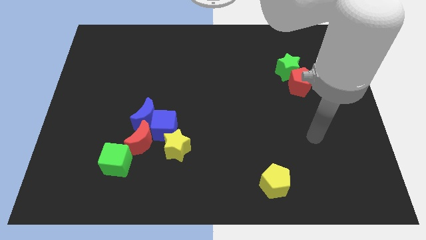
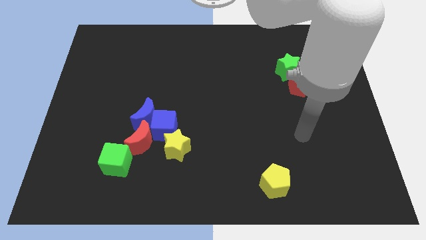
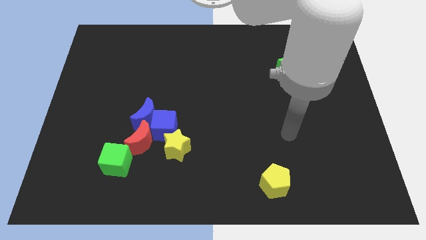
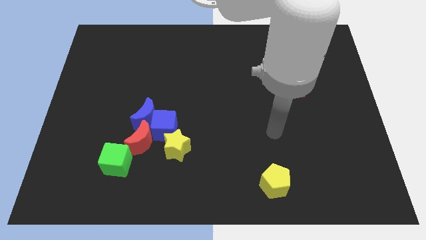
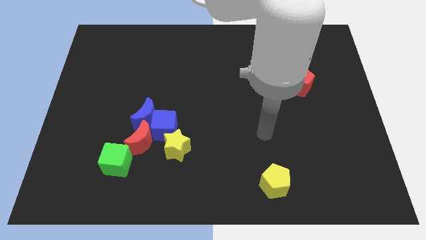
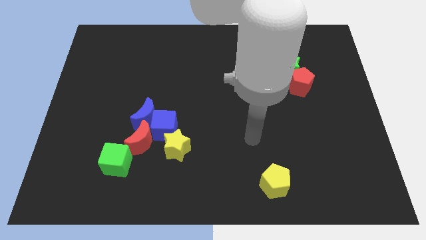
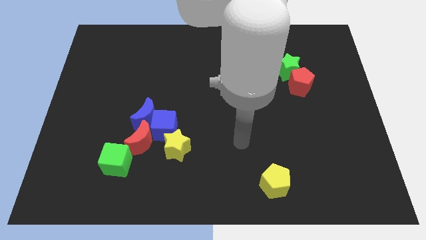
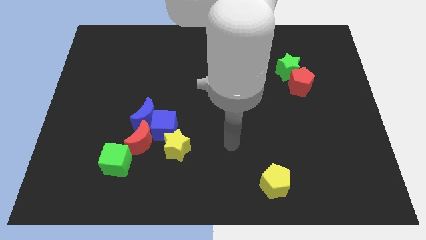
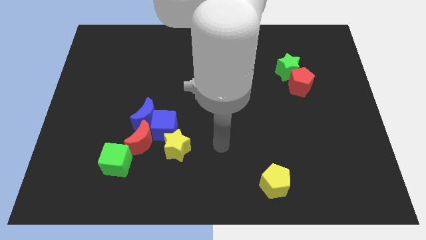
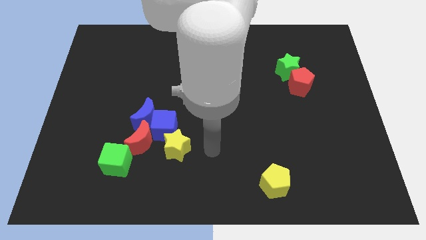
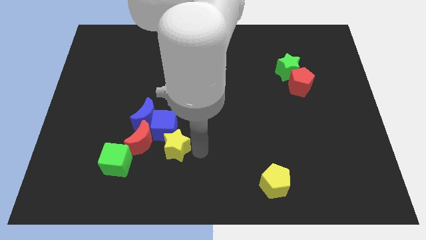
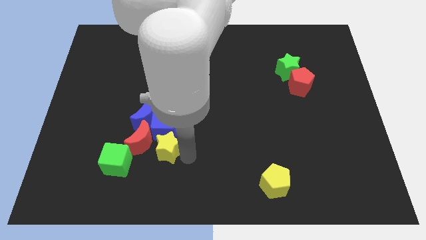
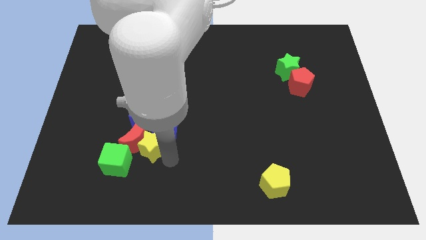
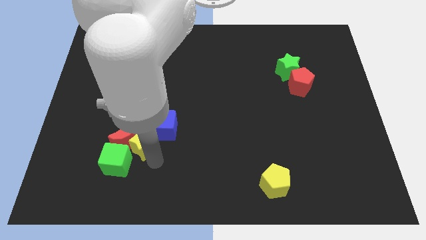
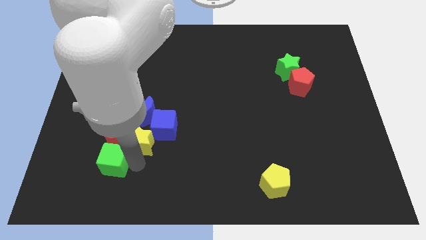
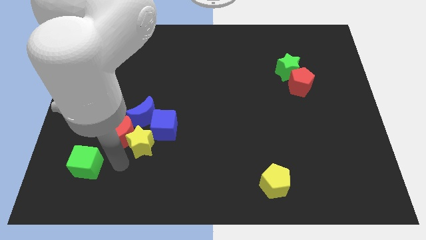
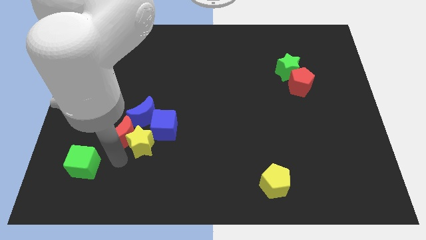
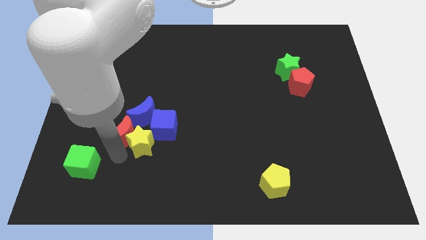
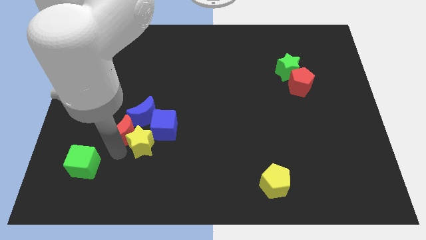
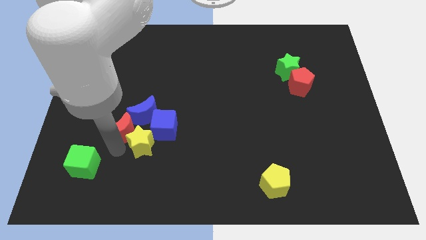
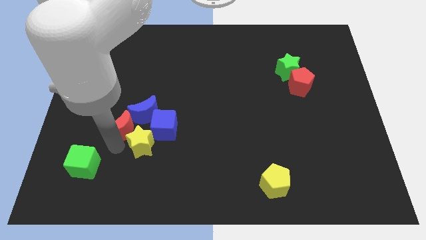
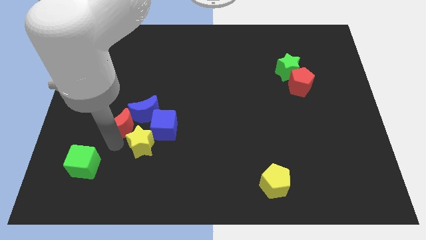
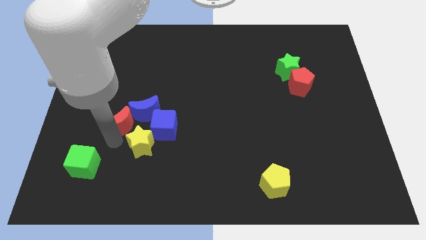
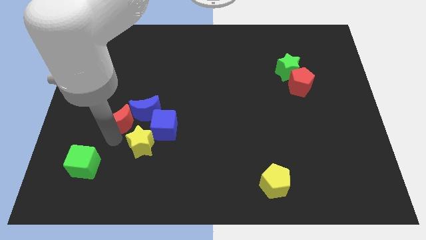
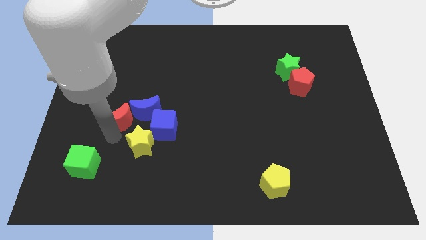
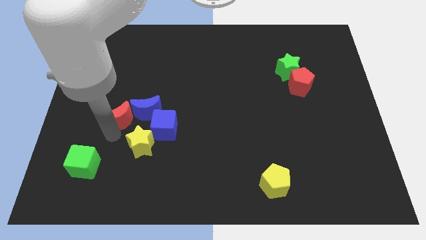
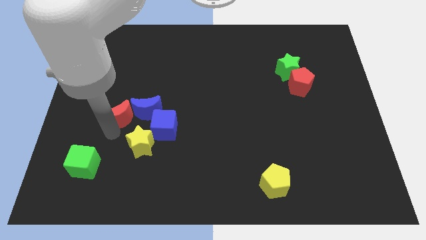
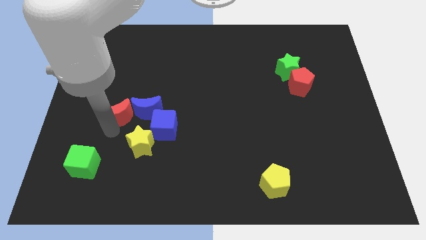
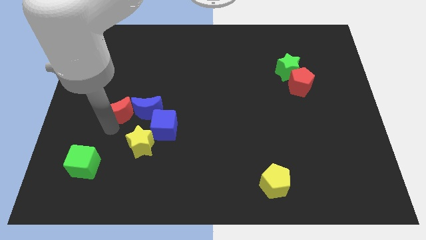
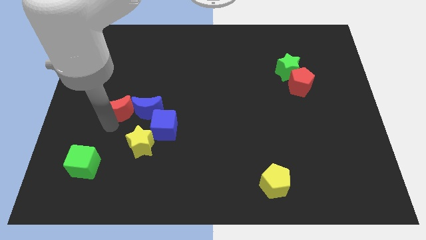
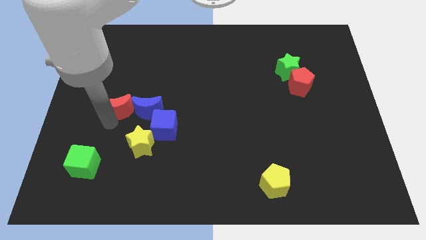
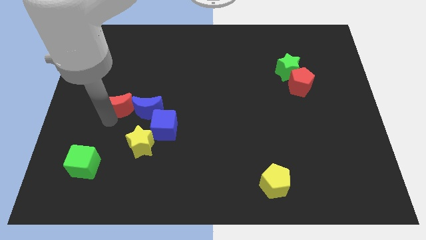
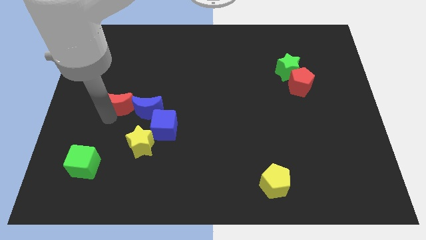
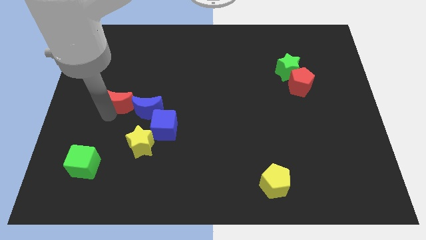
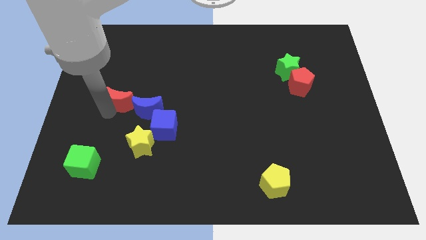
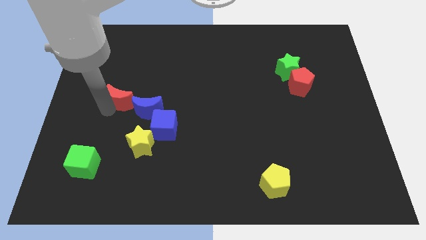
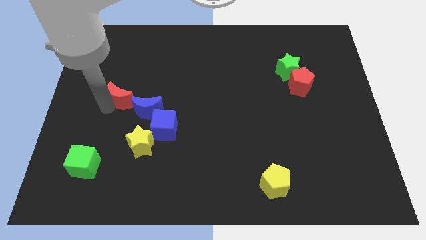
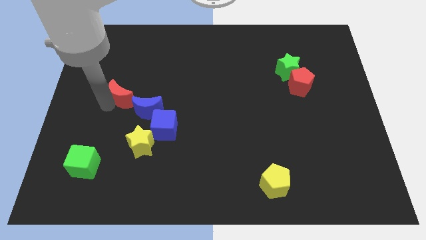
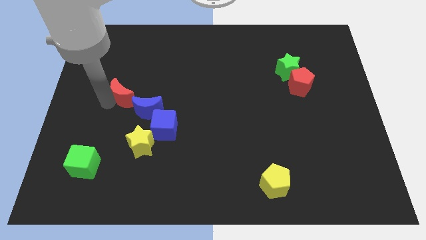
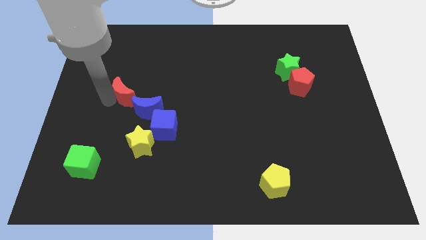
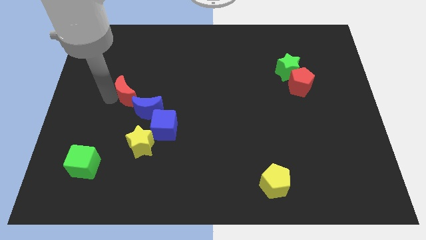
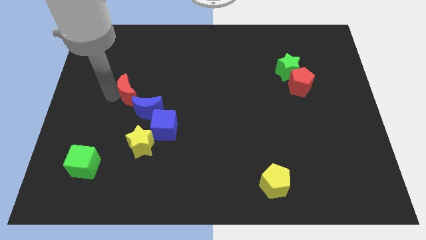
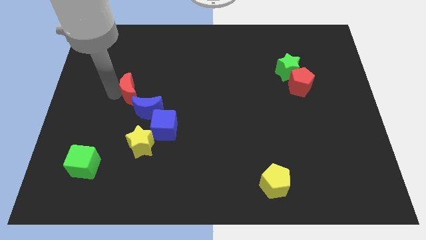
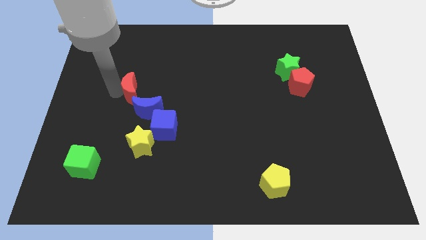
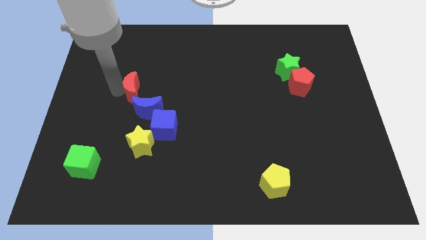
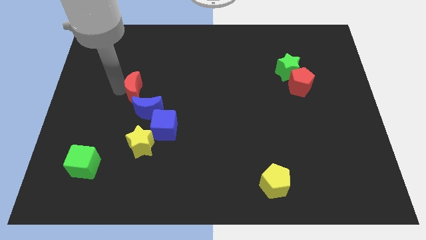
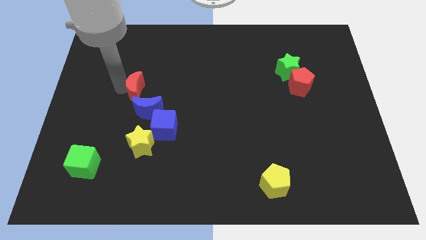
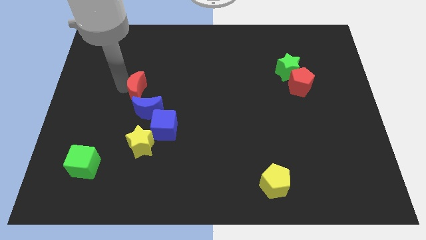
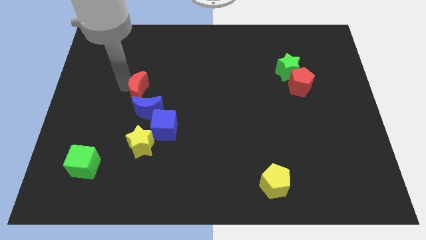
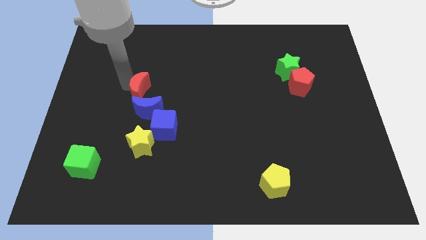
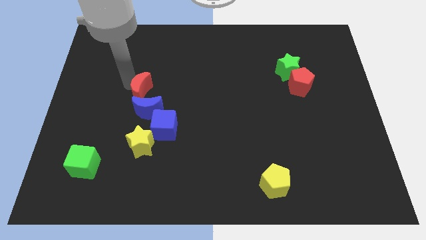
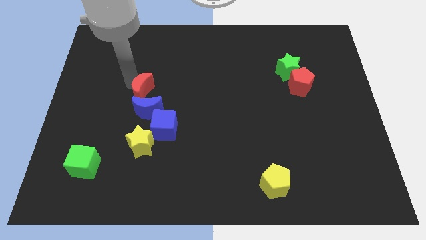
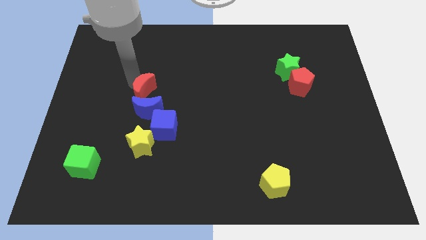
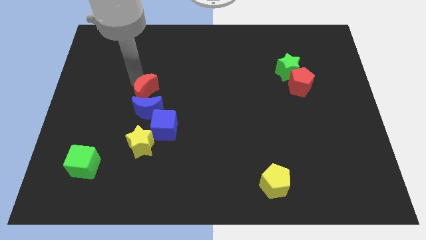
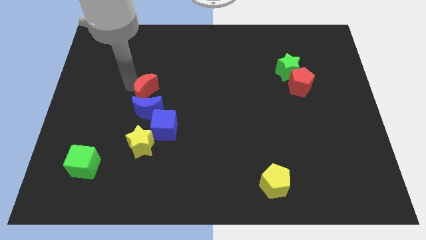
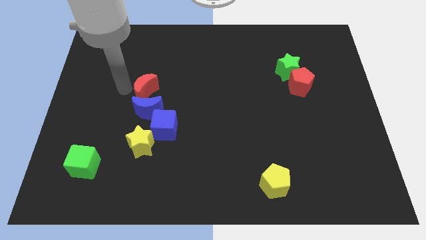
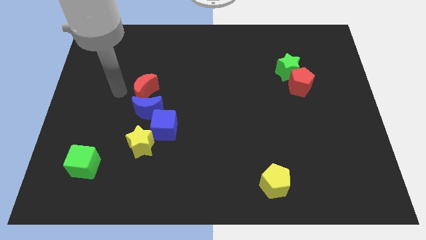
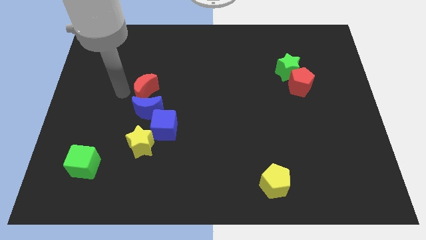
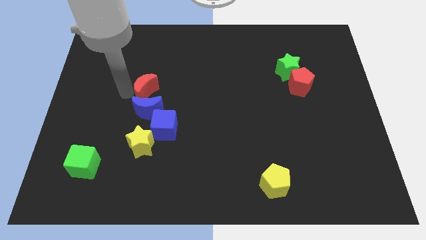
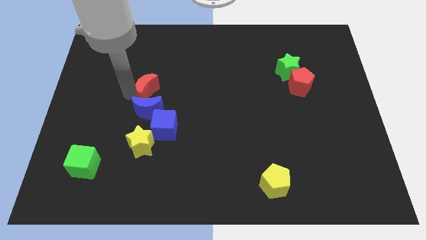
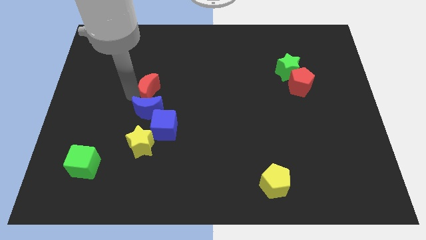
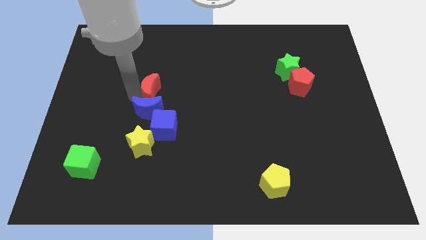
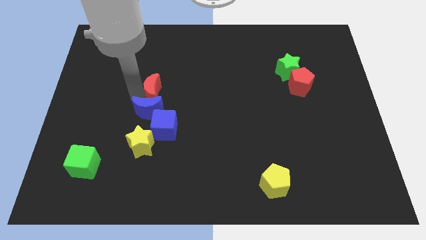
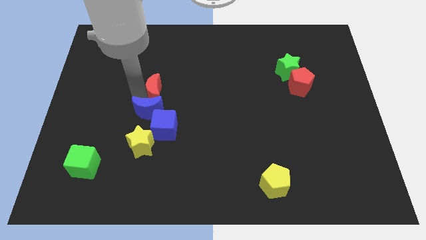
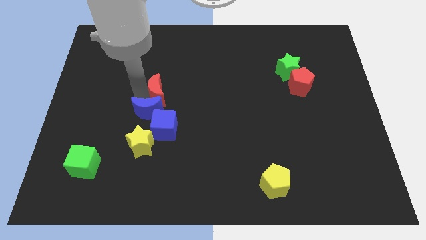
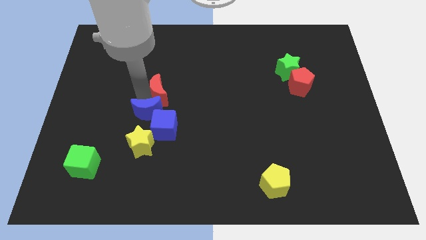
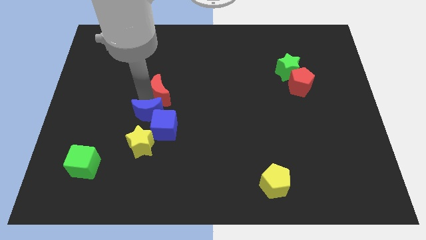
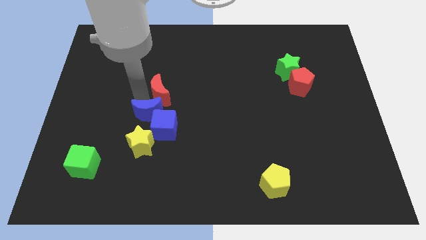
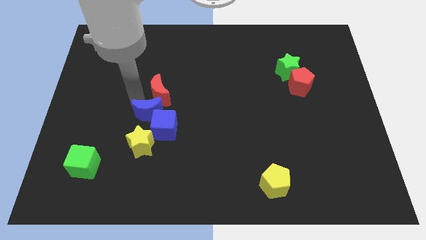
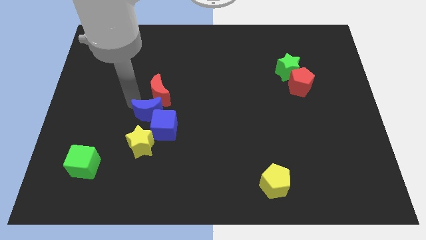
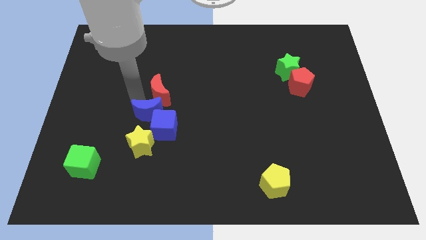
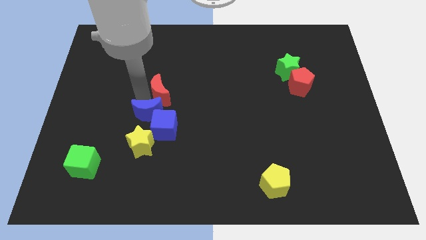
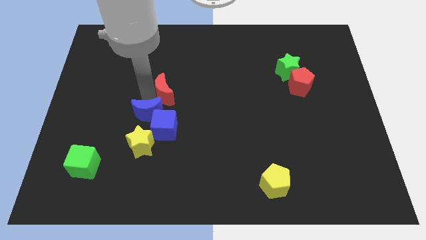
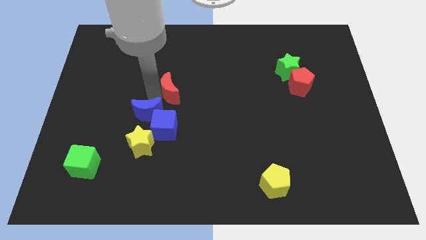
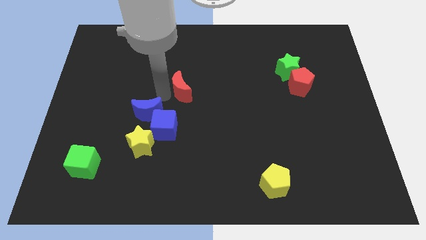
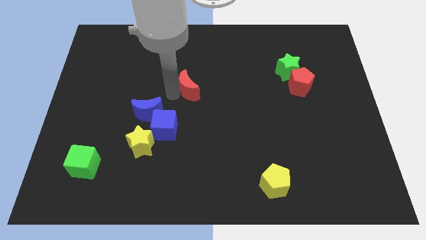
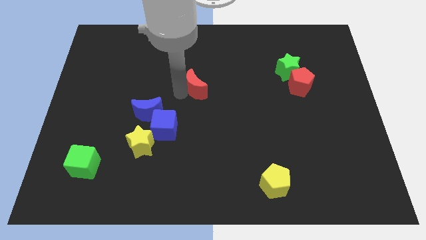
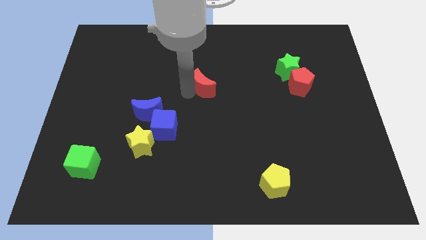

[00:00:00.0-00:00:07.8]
push the red moon diagonally up and right

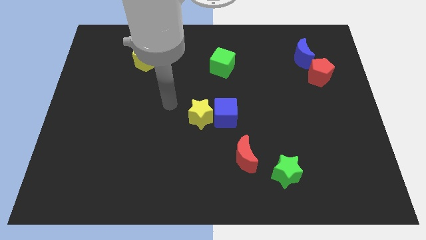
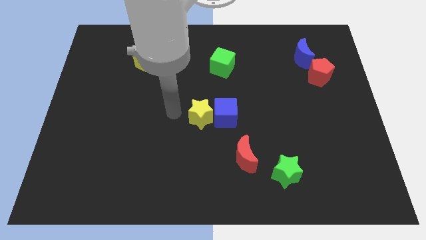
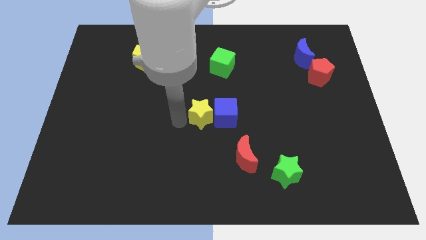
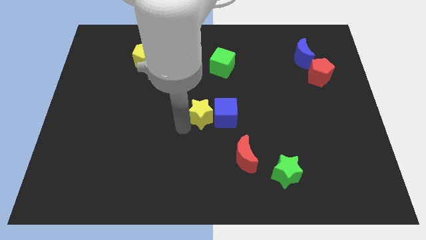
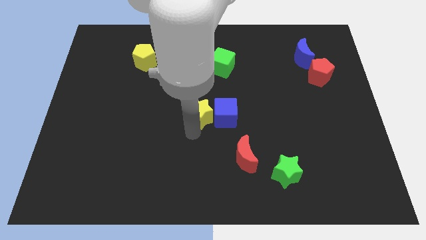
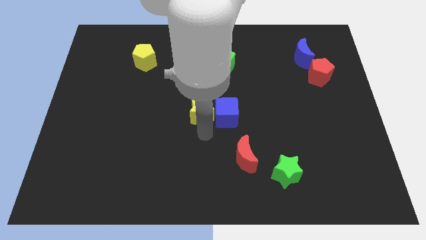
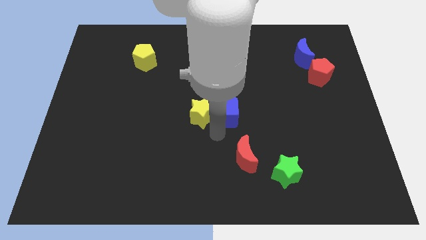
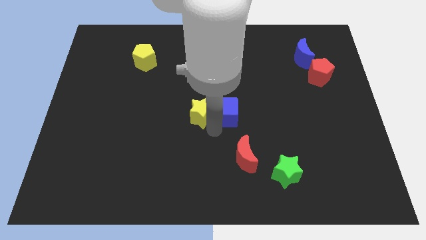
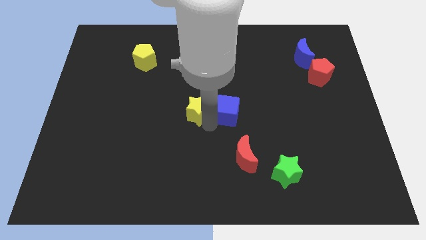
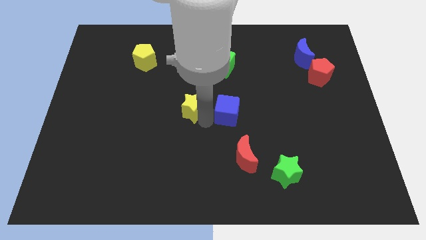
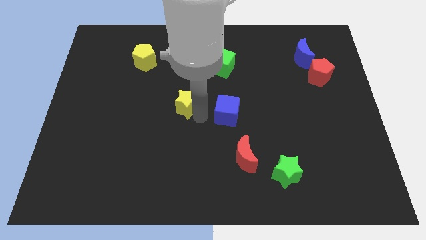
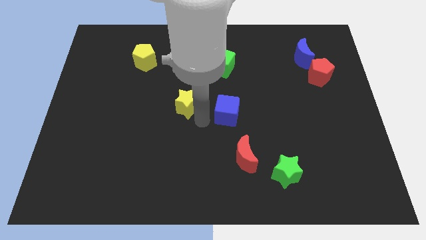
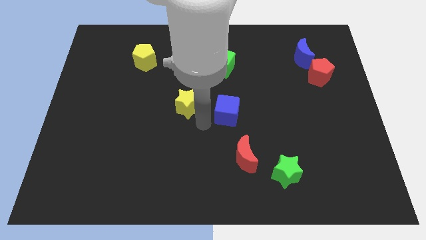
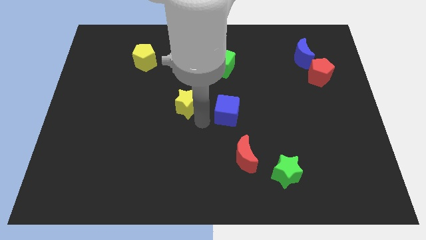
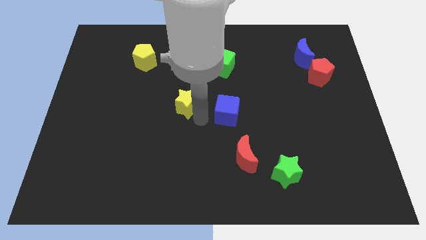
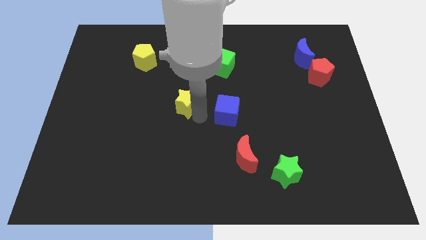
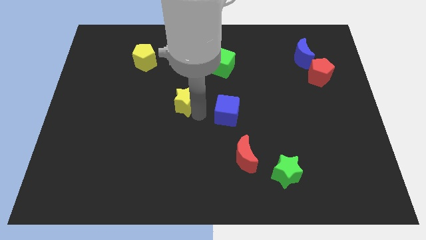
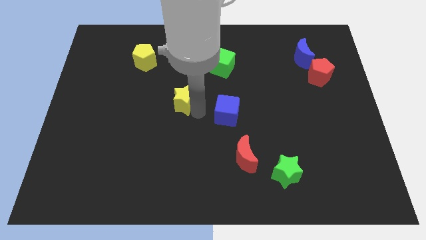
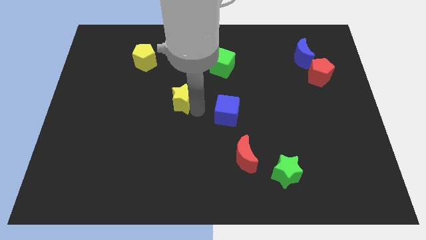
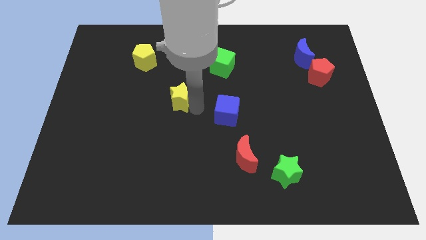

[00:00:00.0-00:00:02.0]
slightly move the yellow star up and to the left diagonally
